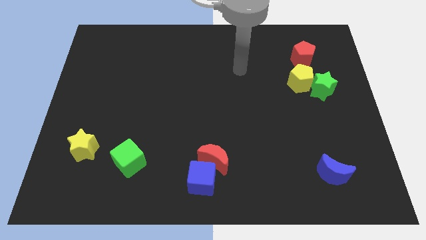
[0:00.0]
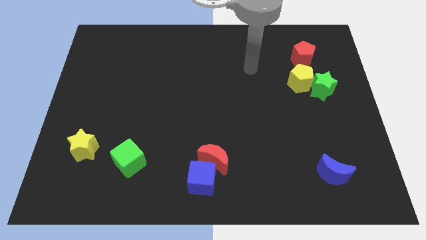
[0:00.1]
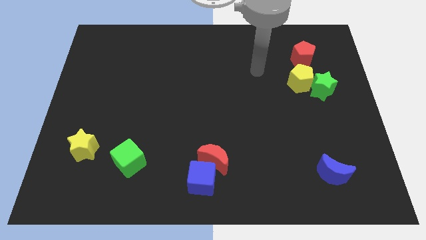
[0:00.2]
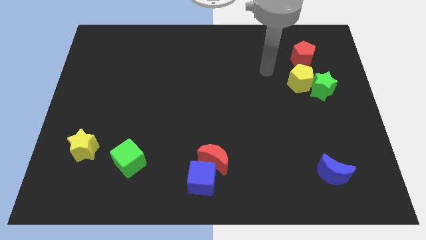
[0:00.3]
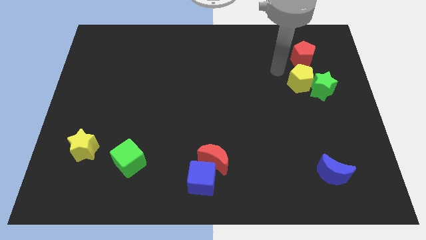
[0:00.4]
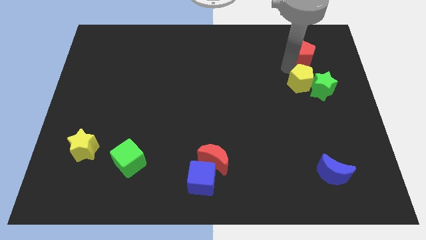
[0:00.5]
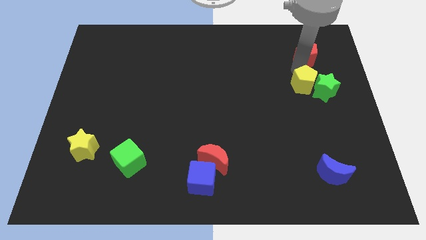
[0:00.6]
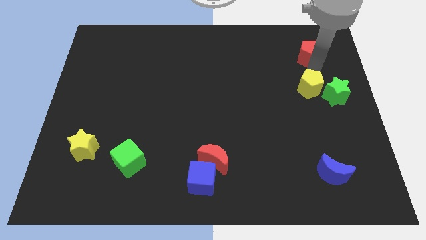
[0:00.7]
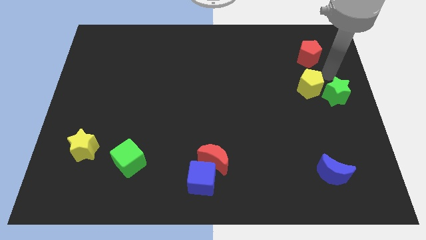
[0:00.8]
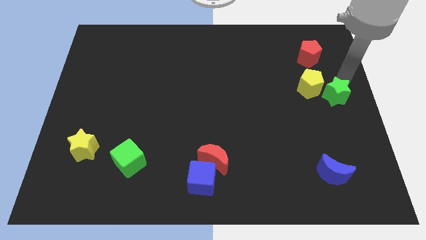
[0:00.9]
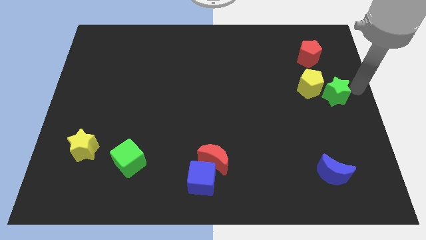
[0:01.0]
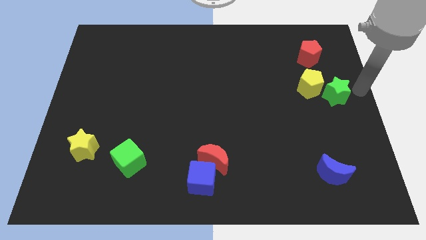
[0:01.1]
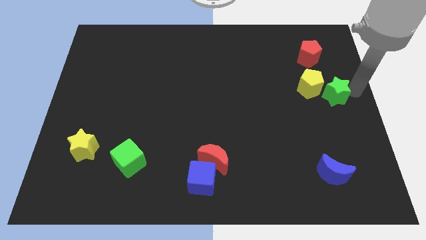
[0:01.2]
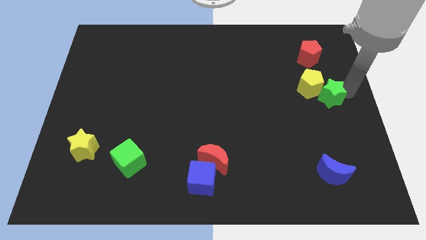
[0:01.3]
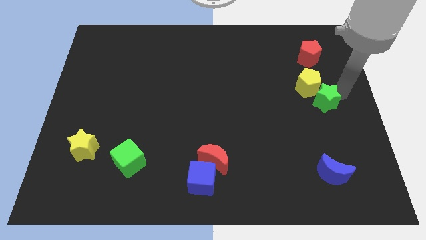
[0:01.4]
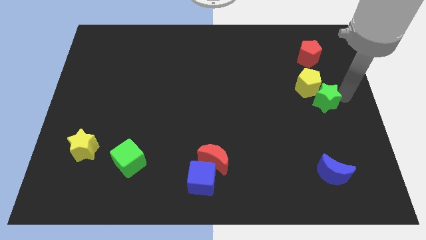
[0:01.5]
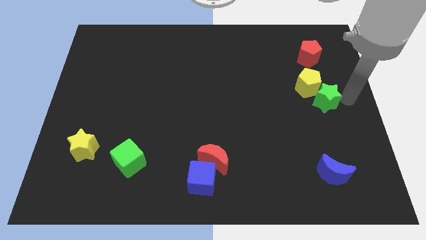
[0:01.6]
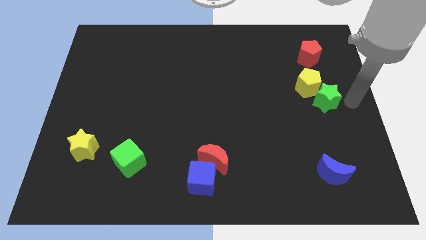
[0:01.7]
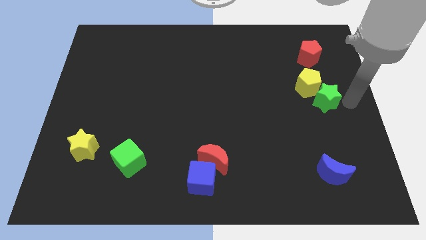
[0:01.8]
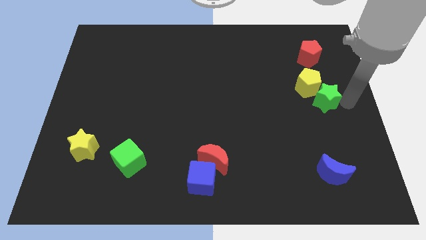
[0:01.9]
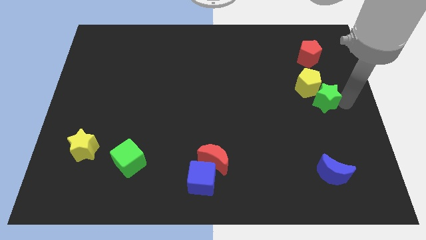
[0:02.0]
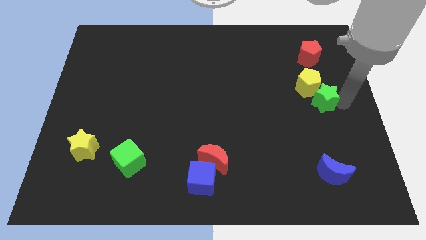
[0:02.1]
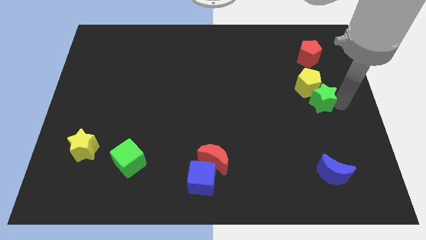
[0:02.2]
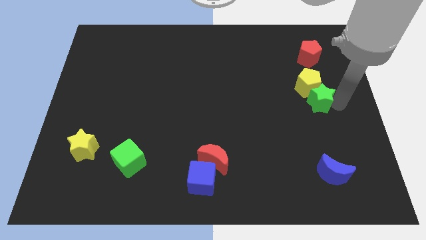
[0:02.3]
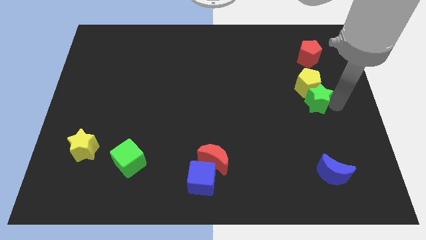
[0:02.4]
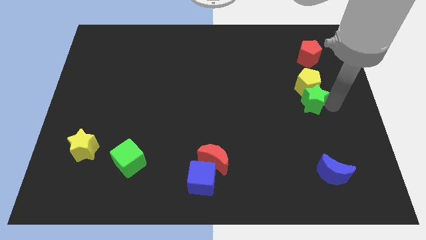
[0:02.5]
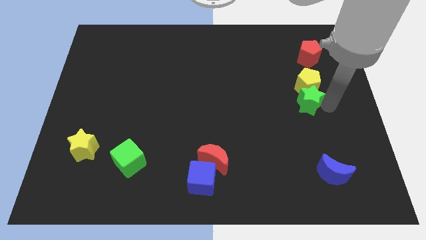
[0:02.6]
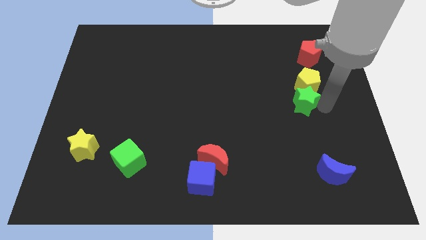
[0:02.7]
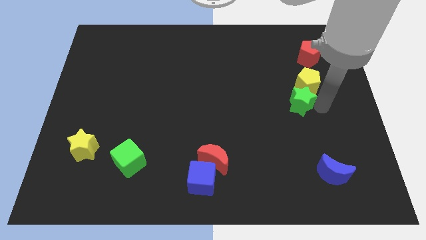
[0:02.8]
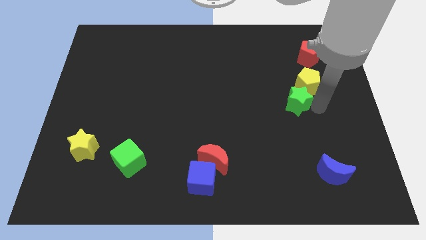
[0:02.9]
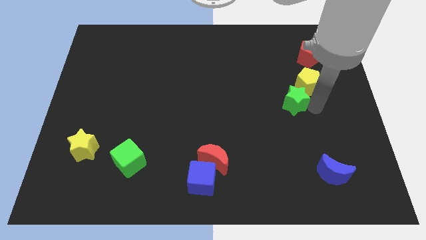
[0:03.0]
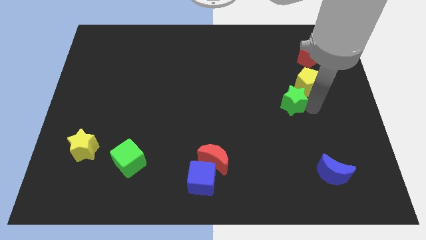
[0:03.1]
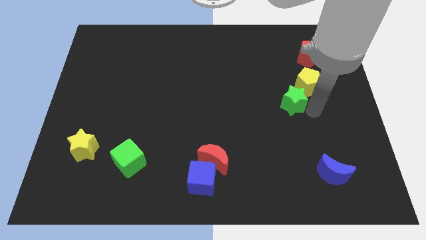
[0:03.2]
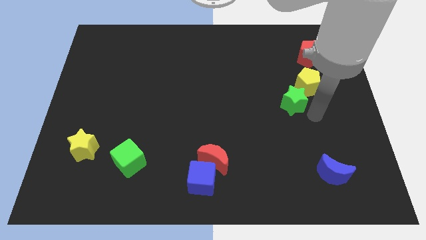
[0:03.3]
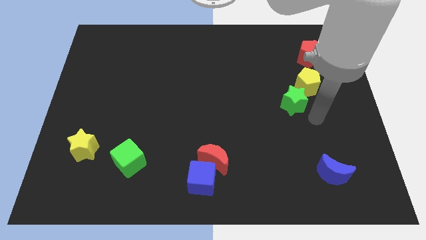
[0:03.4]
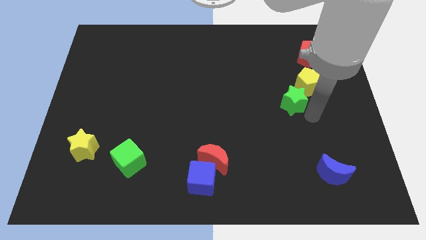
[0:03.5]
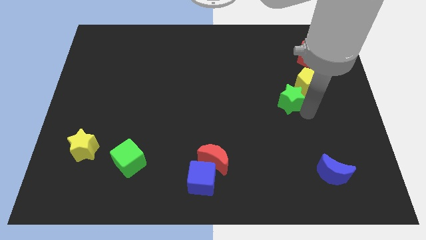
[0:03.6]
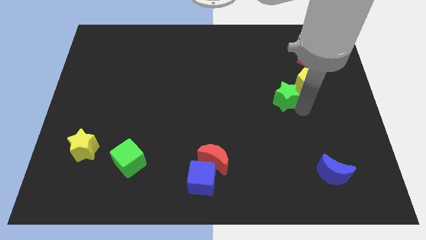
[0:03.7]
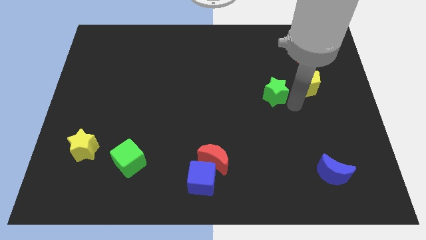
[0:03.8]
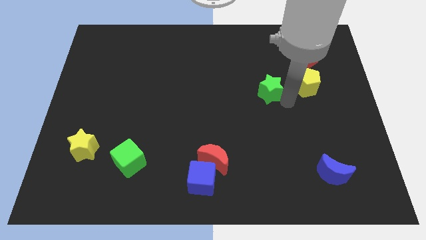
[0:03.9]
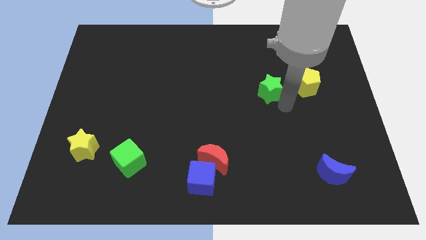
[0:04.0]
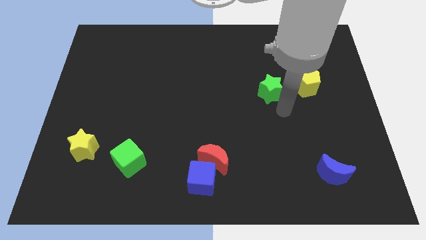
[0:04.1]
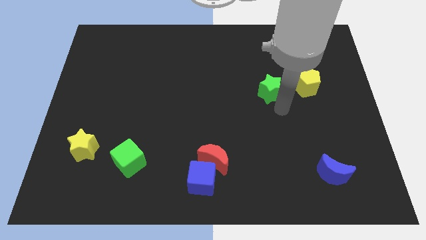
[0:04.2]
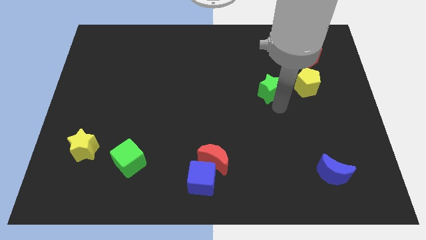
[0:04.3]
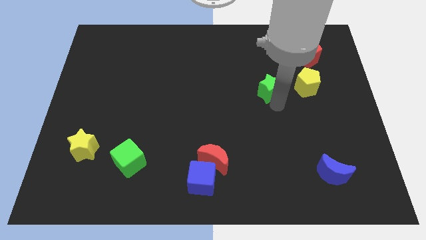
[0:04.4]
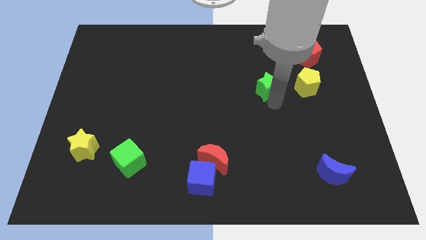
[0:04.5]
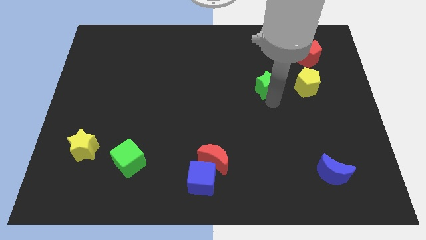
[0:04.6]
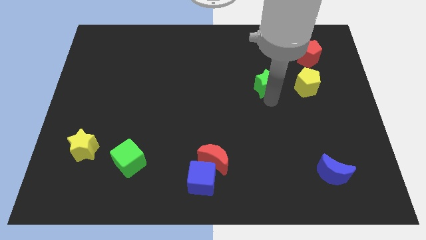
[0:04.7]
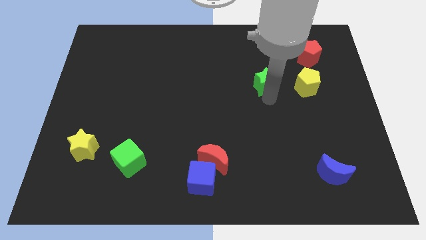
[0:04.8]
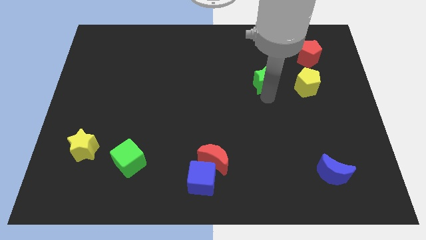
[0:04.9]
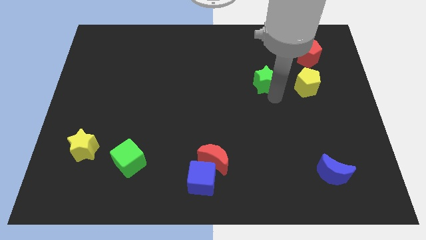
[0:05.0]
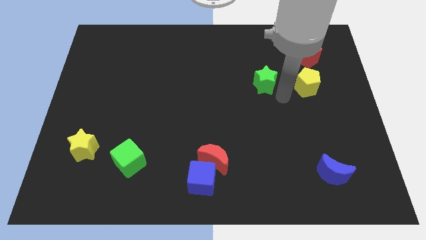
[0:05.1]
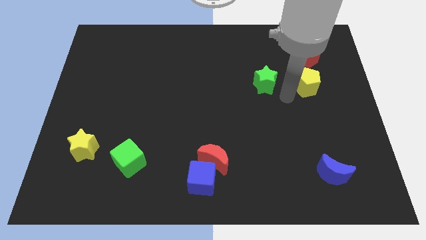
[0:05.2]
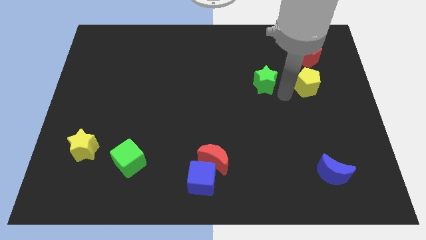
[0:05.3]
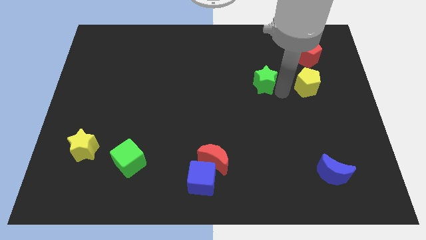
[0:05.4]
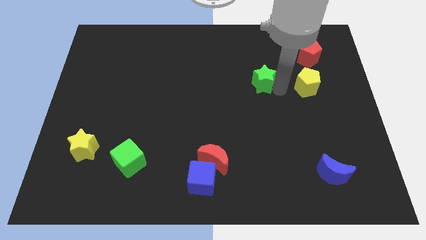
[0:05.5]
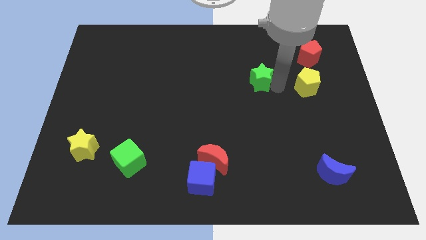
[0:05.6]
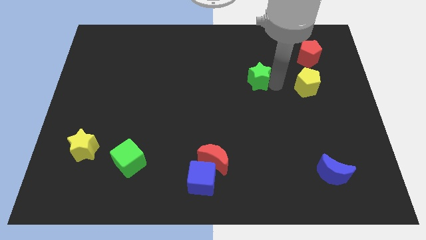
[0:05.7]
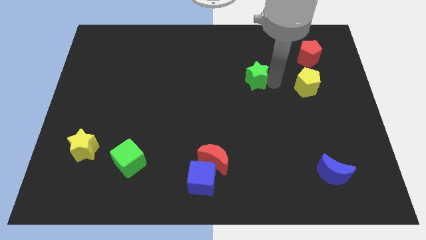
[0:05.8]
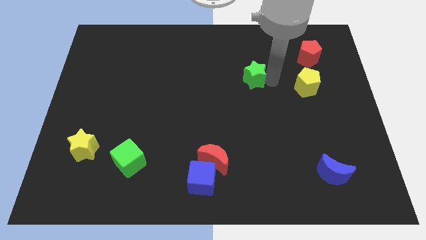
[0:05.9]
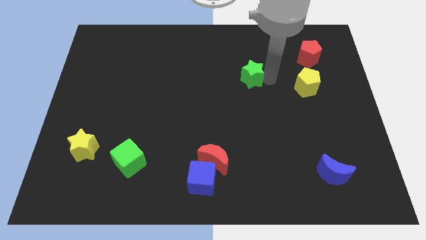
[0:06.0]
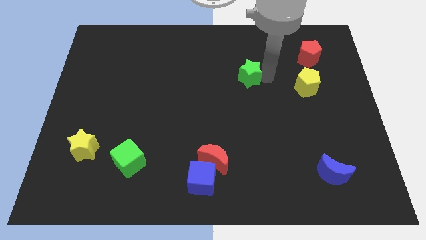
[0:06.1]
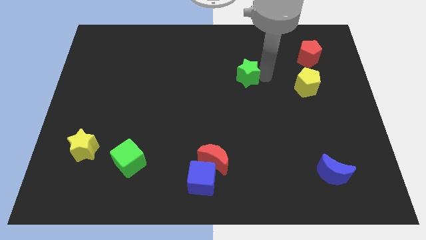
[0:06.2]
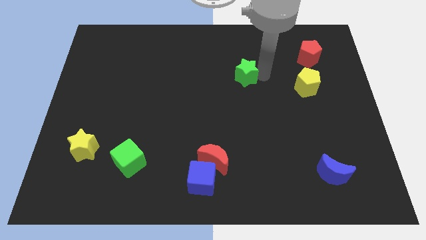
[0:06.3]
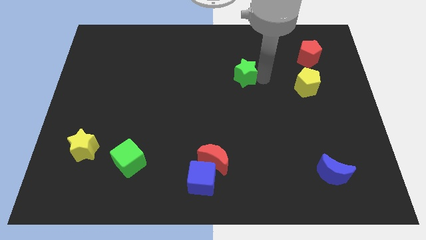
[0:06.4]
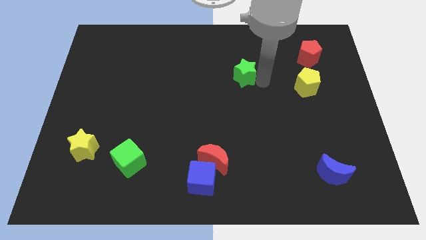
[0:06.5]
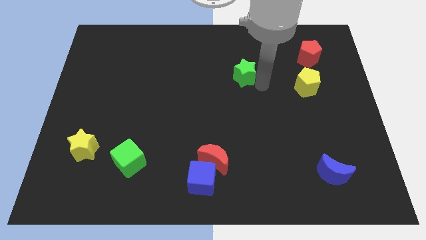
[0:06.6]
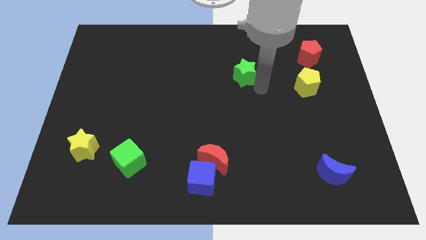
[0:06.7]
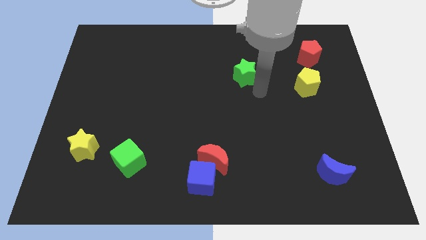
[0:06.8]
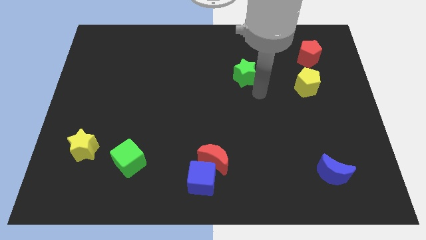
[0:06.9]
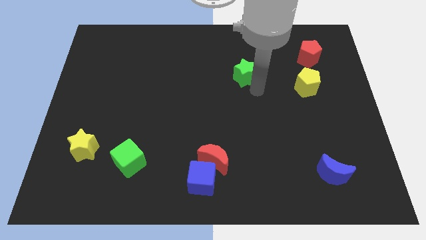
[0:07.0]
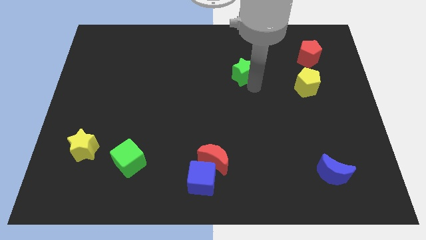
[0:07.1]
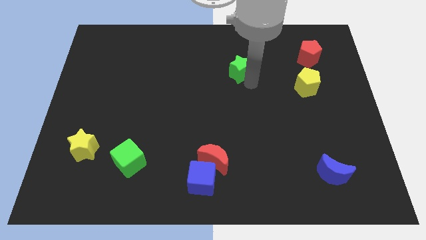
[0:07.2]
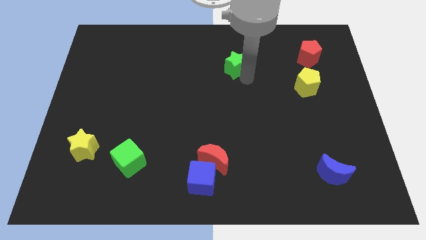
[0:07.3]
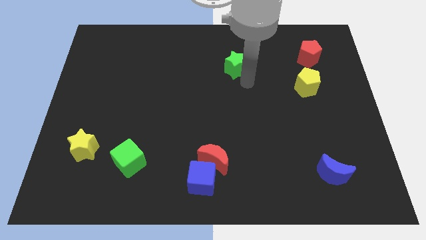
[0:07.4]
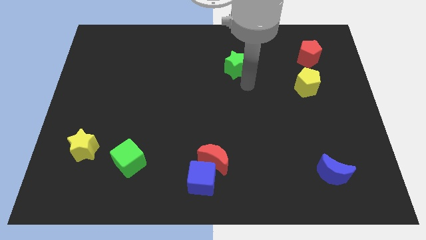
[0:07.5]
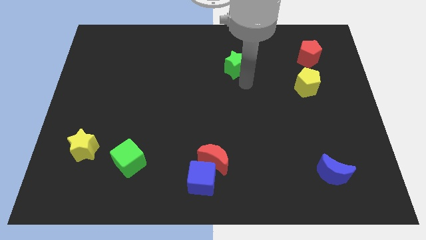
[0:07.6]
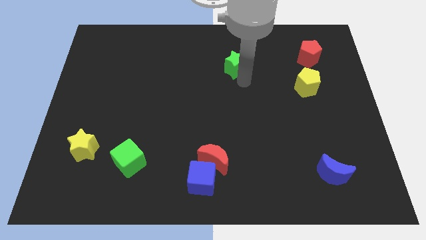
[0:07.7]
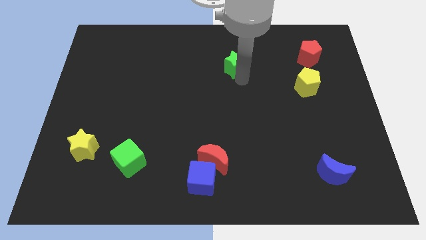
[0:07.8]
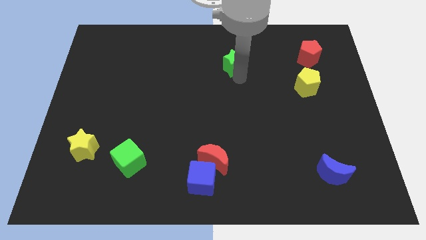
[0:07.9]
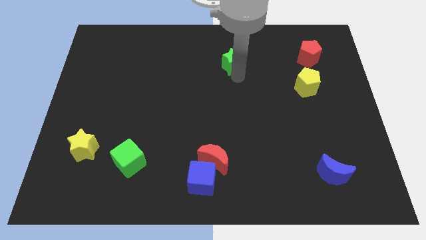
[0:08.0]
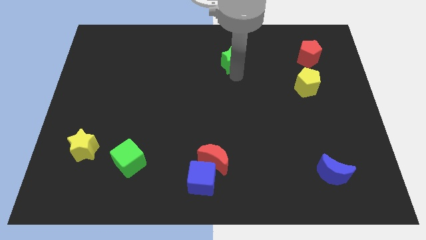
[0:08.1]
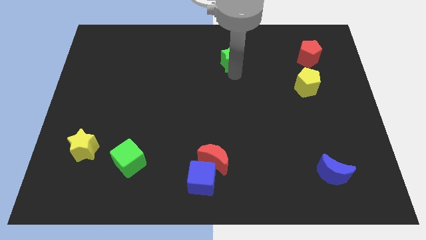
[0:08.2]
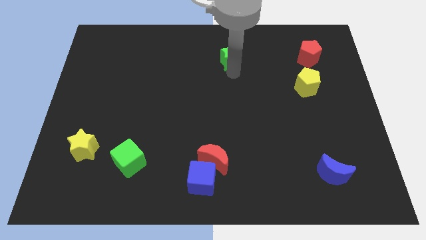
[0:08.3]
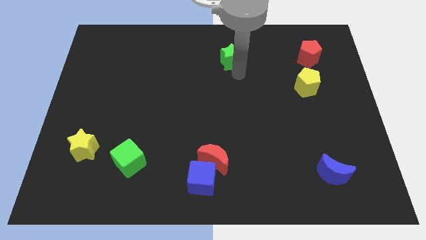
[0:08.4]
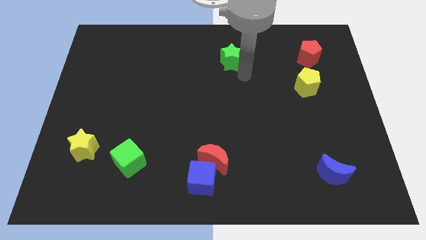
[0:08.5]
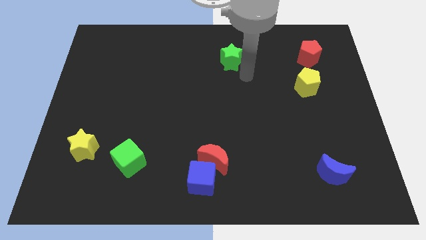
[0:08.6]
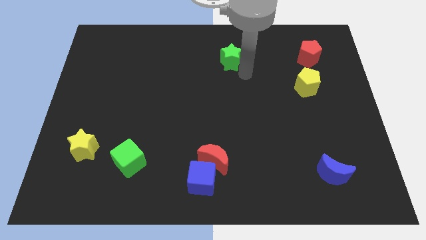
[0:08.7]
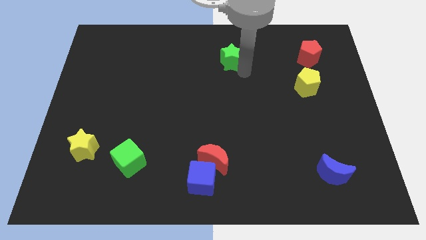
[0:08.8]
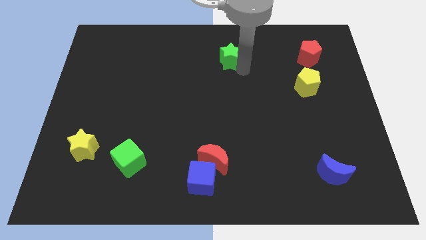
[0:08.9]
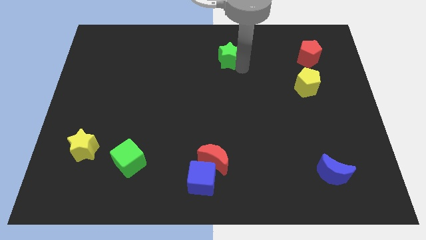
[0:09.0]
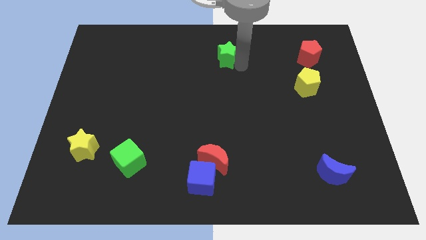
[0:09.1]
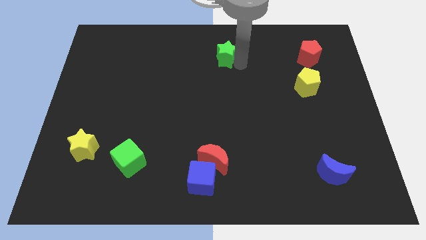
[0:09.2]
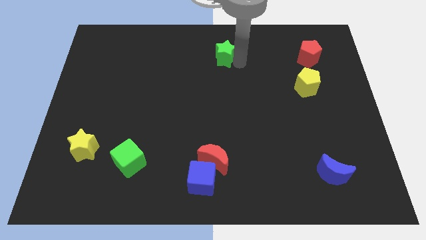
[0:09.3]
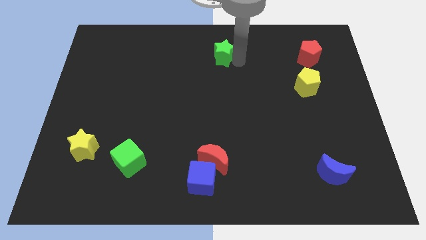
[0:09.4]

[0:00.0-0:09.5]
push the green star to the top side
